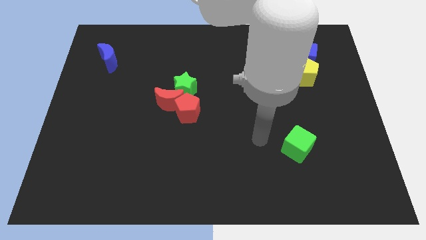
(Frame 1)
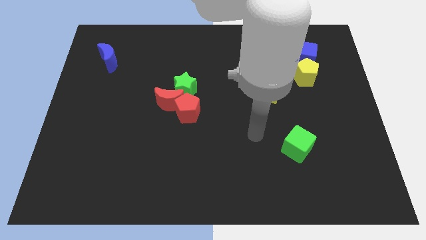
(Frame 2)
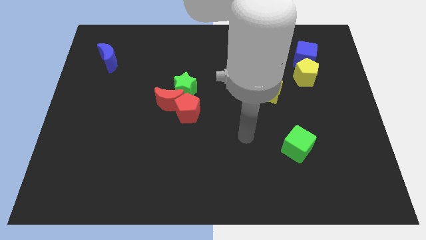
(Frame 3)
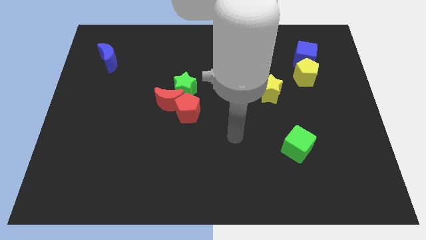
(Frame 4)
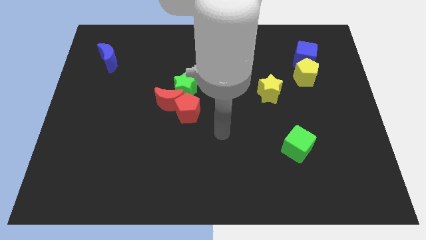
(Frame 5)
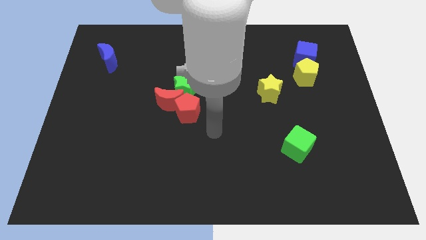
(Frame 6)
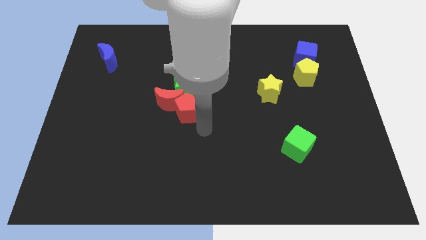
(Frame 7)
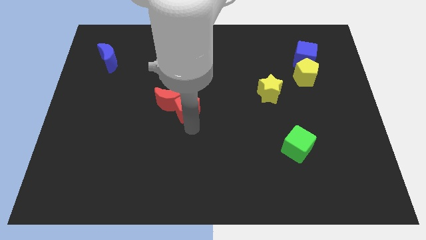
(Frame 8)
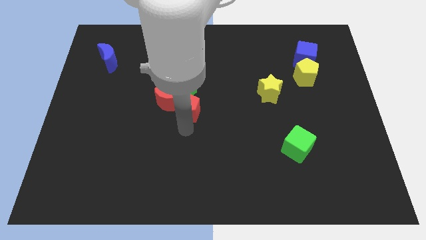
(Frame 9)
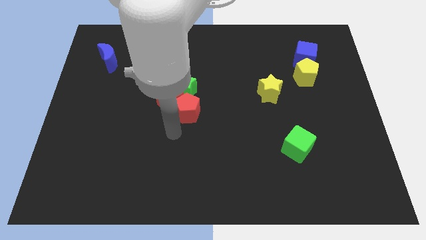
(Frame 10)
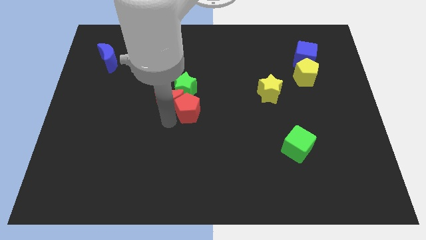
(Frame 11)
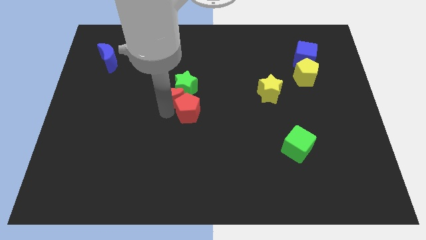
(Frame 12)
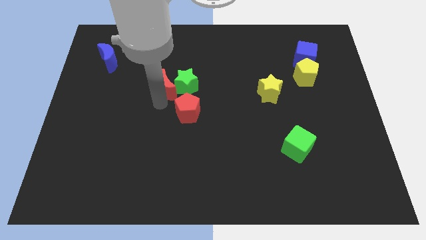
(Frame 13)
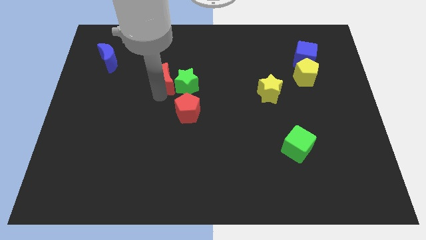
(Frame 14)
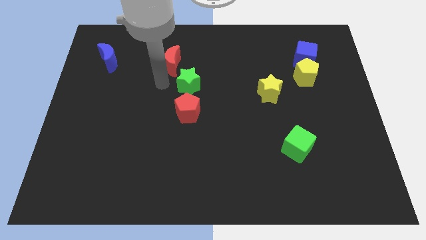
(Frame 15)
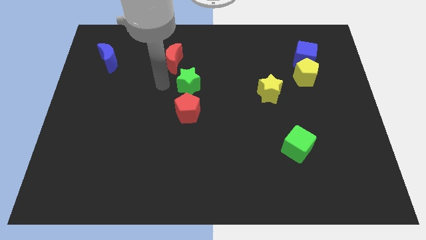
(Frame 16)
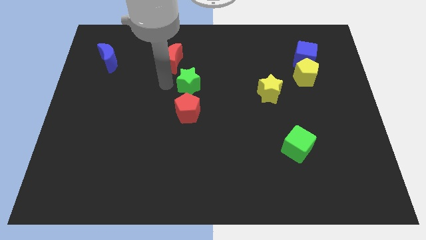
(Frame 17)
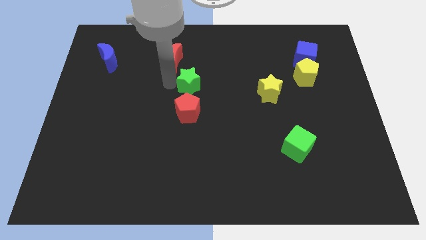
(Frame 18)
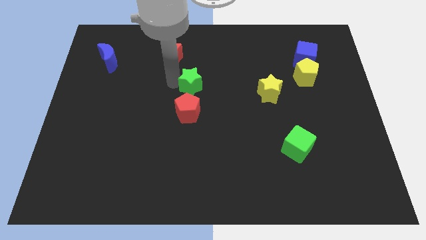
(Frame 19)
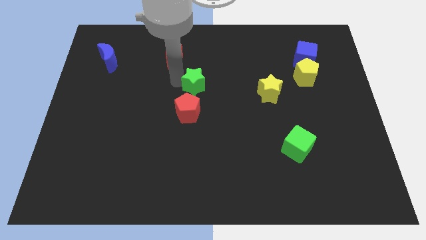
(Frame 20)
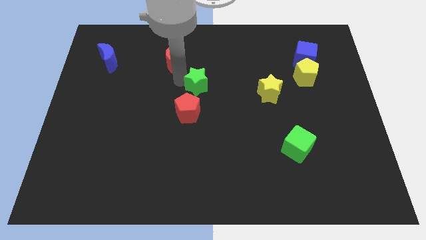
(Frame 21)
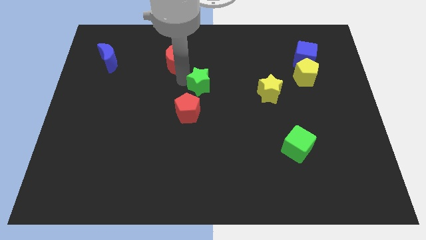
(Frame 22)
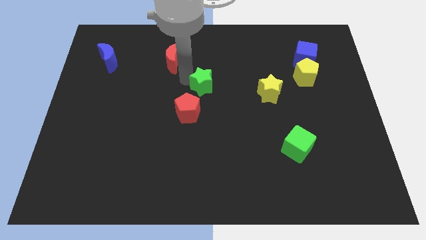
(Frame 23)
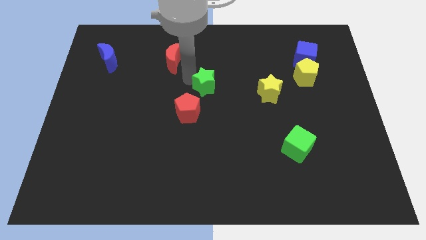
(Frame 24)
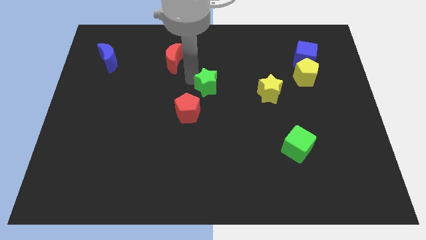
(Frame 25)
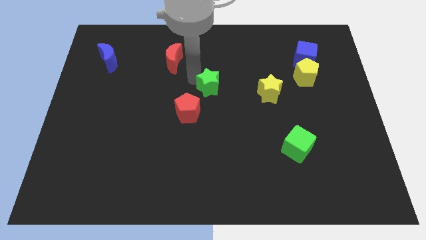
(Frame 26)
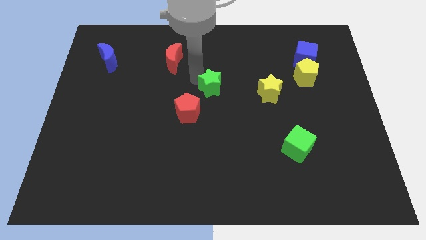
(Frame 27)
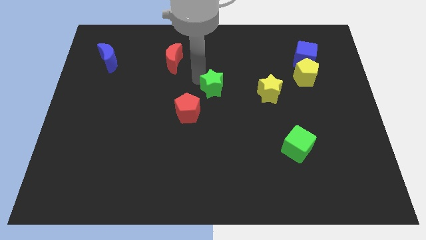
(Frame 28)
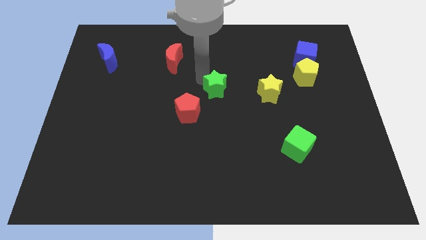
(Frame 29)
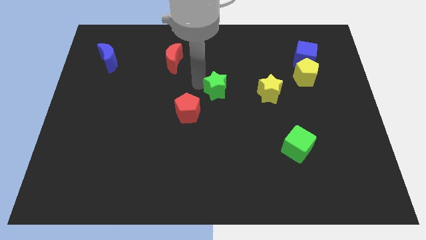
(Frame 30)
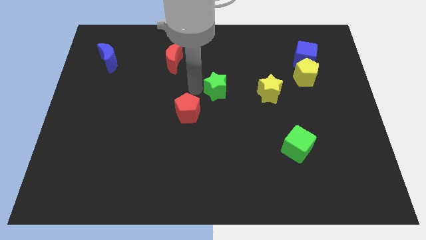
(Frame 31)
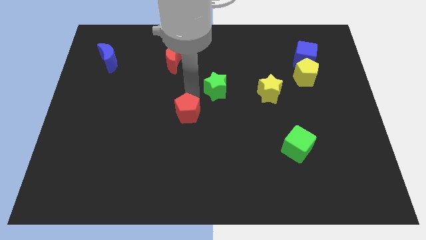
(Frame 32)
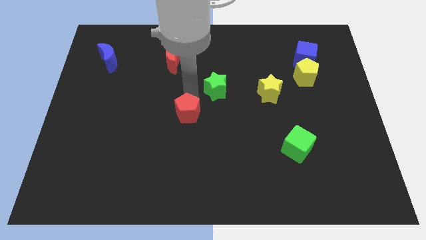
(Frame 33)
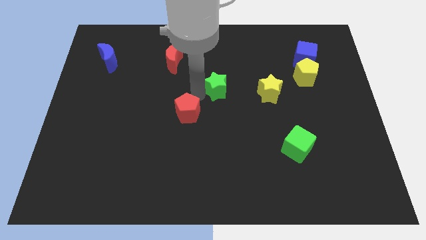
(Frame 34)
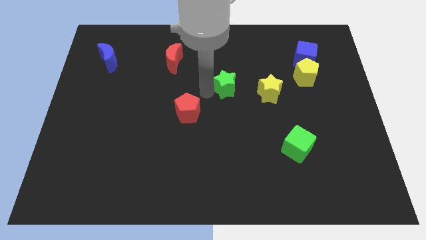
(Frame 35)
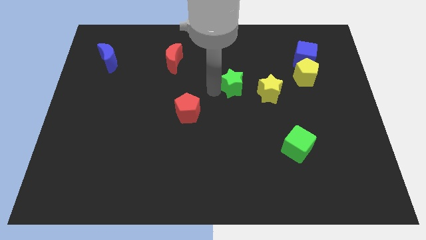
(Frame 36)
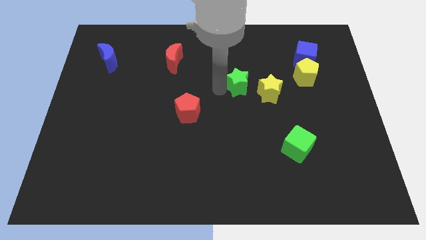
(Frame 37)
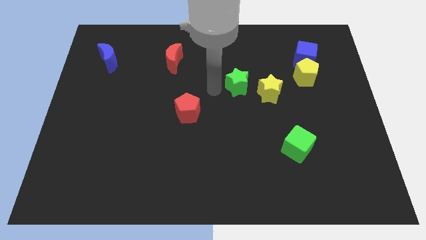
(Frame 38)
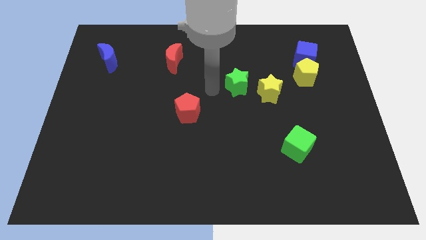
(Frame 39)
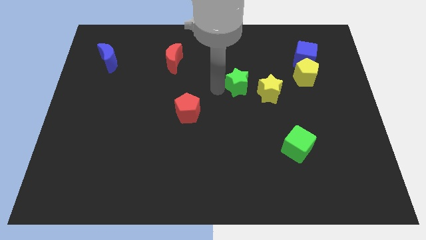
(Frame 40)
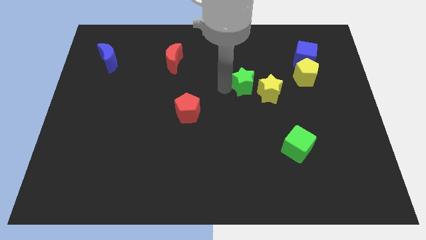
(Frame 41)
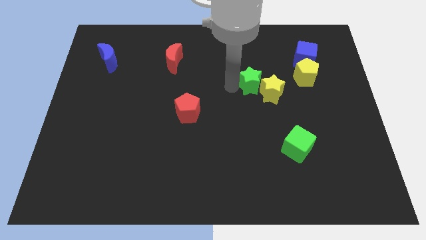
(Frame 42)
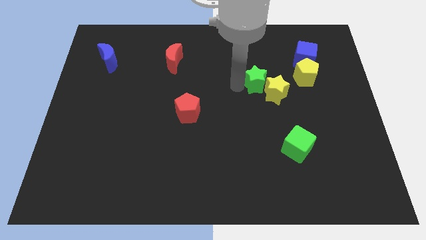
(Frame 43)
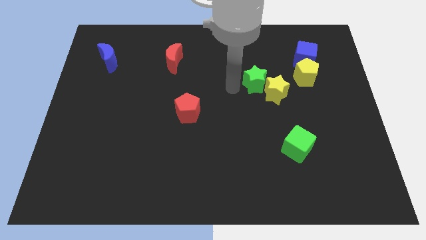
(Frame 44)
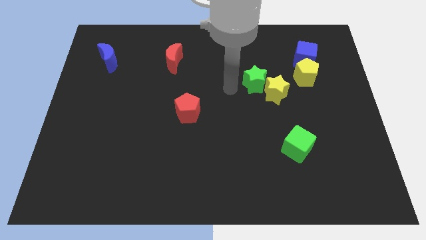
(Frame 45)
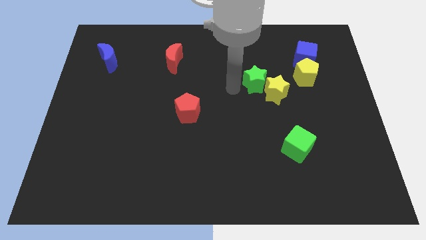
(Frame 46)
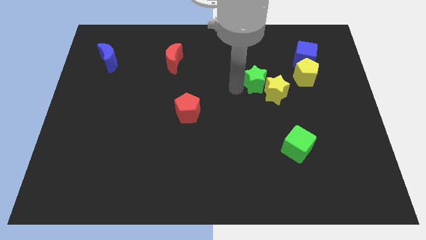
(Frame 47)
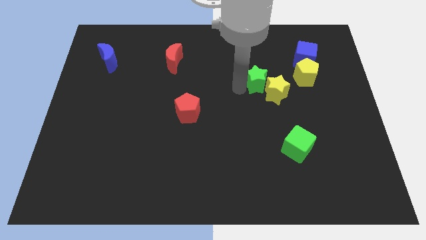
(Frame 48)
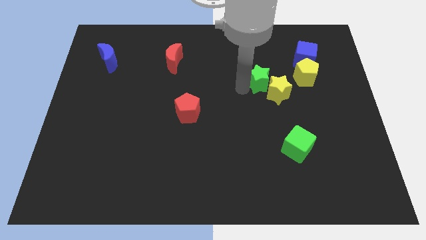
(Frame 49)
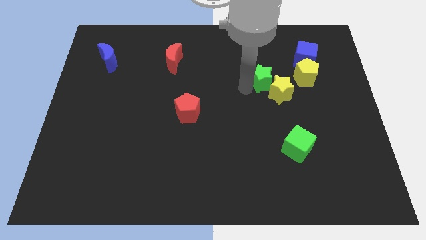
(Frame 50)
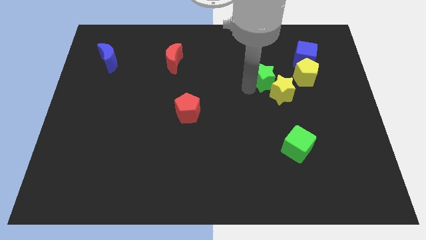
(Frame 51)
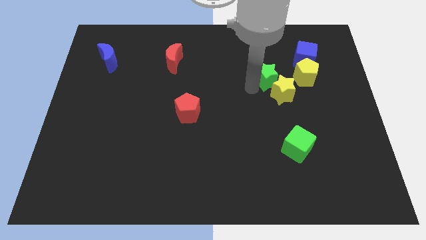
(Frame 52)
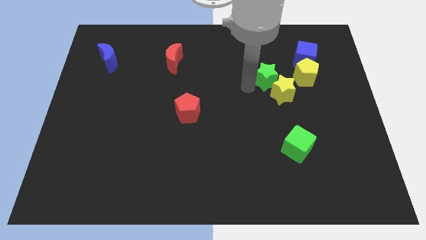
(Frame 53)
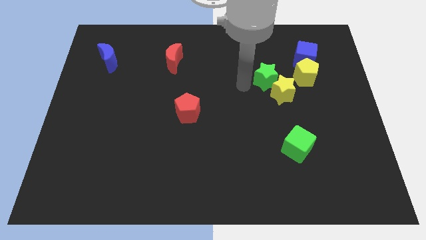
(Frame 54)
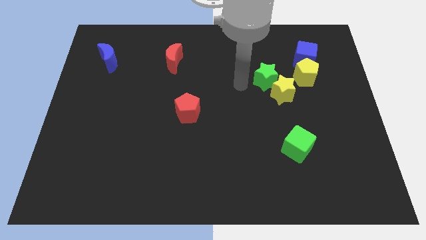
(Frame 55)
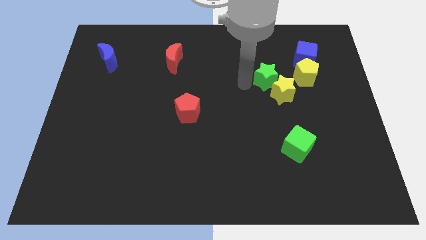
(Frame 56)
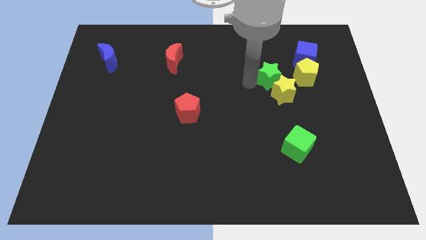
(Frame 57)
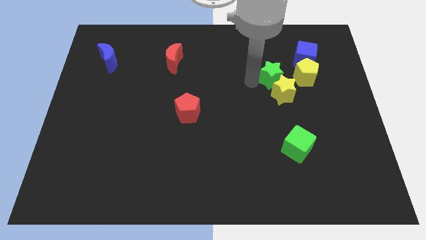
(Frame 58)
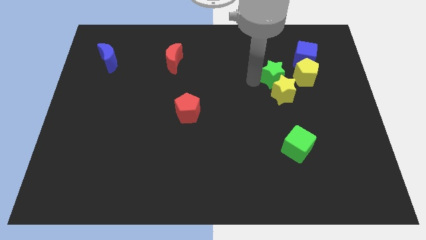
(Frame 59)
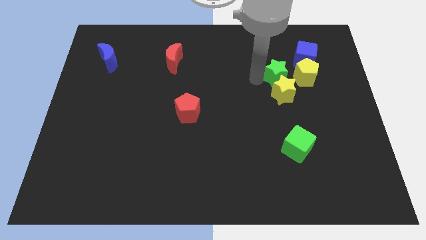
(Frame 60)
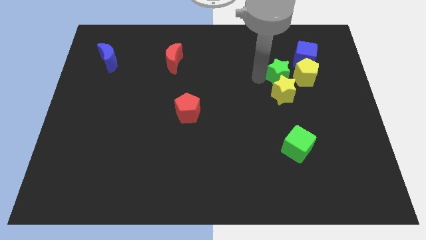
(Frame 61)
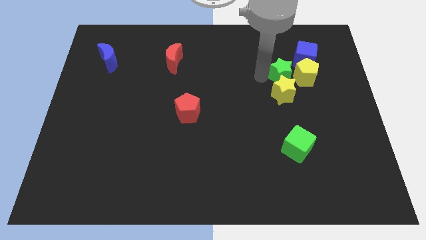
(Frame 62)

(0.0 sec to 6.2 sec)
slide the green star to the yellow pentagon
